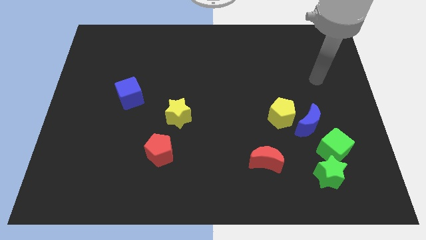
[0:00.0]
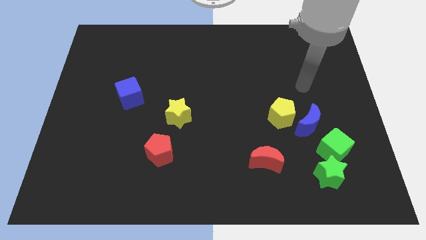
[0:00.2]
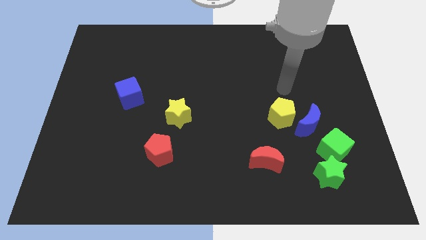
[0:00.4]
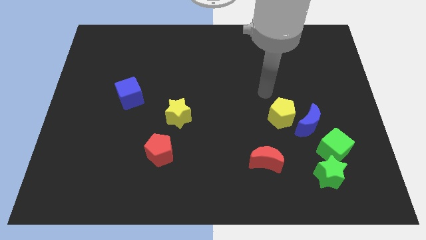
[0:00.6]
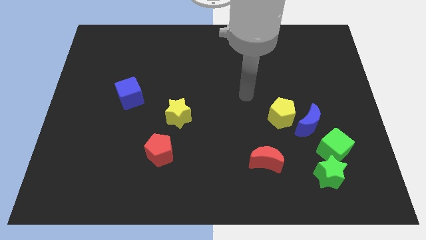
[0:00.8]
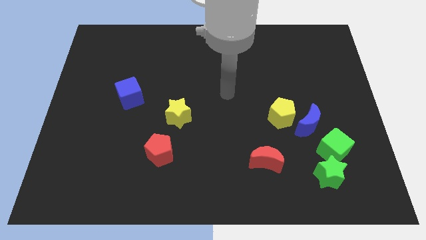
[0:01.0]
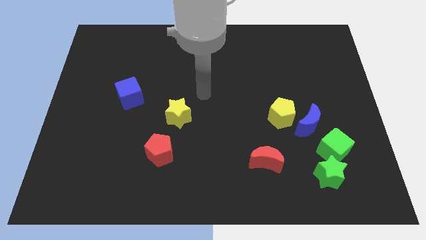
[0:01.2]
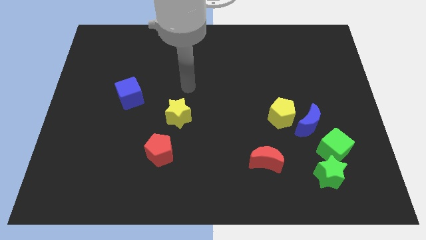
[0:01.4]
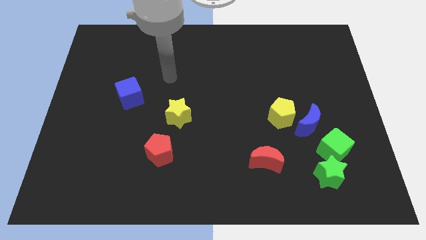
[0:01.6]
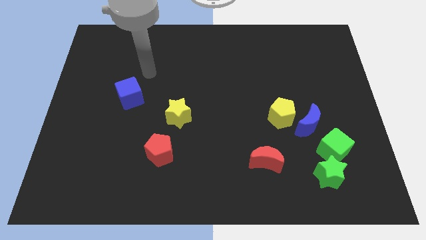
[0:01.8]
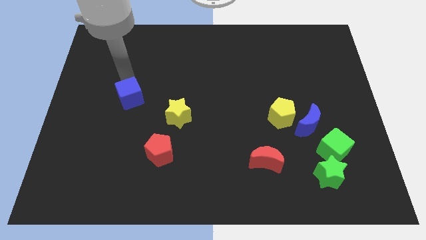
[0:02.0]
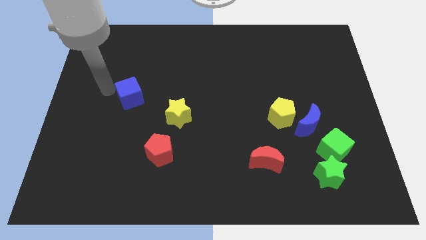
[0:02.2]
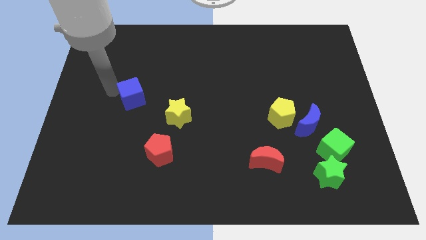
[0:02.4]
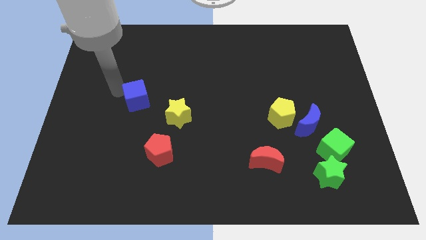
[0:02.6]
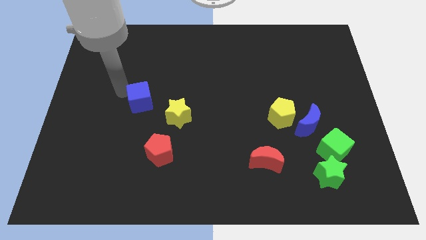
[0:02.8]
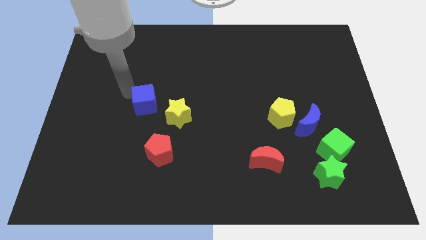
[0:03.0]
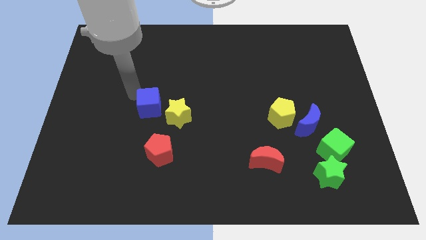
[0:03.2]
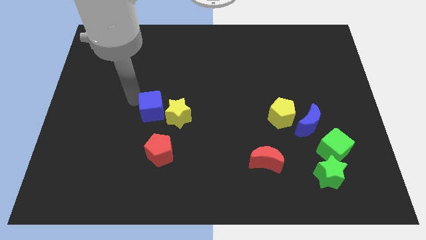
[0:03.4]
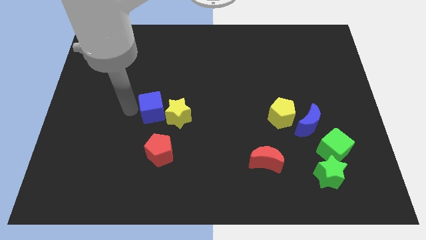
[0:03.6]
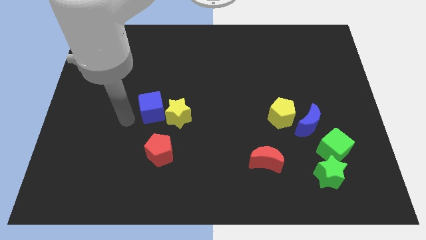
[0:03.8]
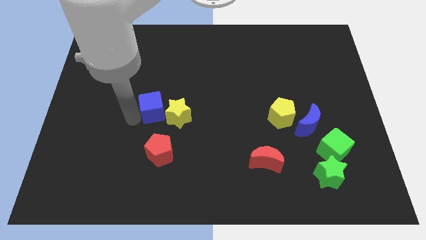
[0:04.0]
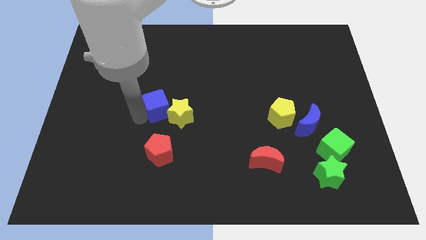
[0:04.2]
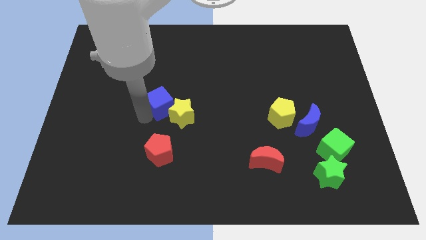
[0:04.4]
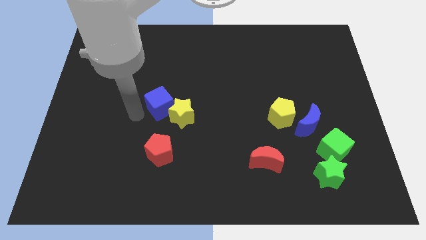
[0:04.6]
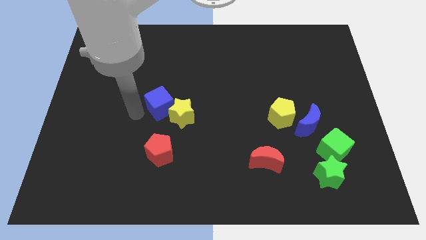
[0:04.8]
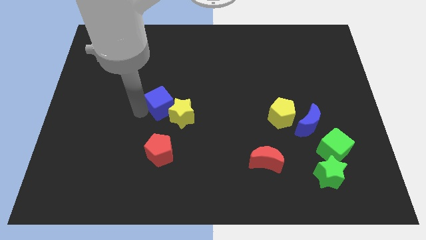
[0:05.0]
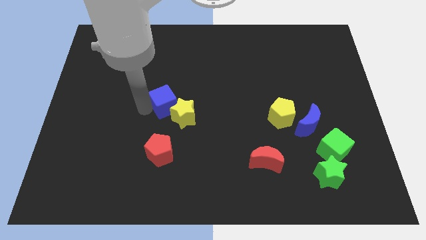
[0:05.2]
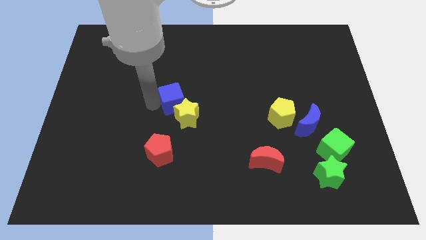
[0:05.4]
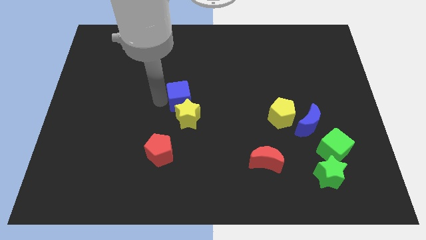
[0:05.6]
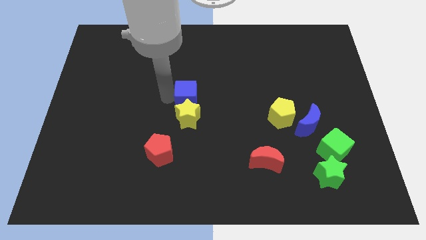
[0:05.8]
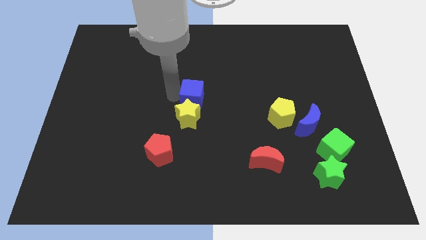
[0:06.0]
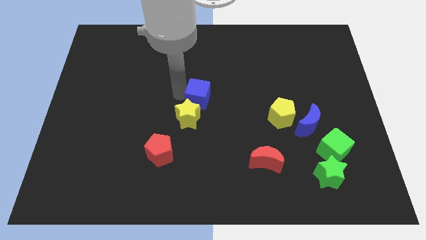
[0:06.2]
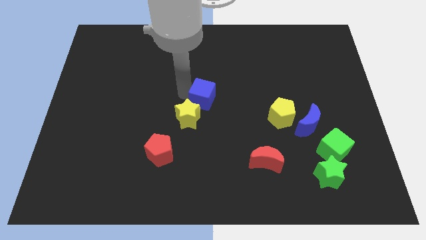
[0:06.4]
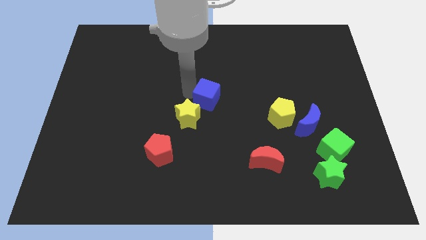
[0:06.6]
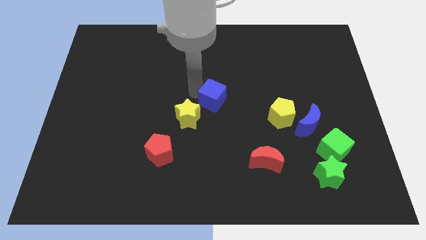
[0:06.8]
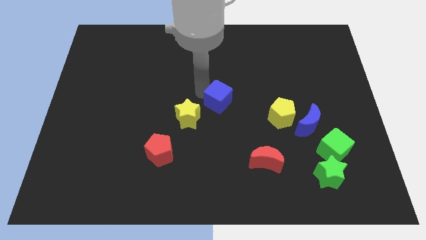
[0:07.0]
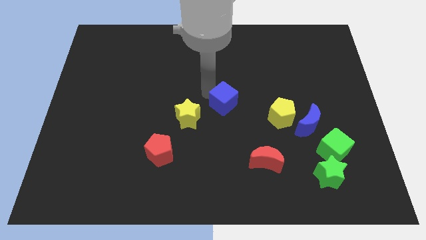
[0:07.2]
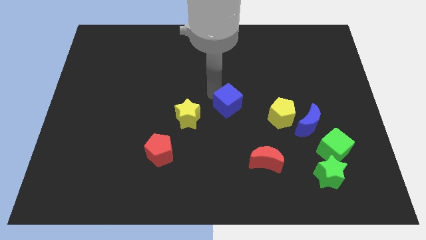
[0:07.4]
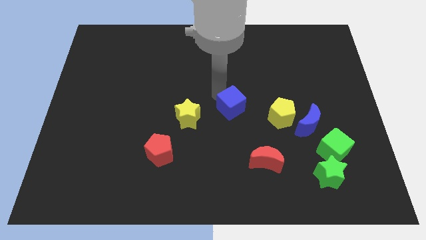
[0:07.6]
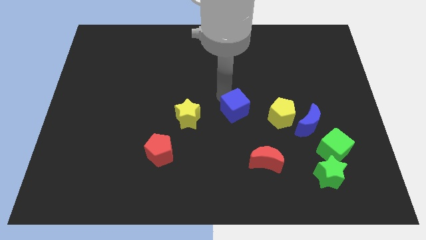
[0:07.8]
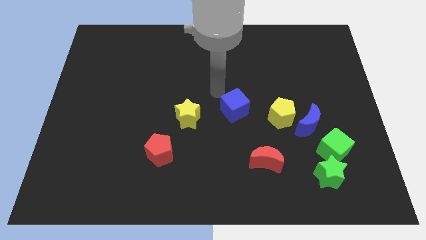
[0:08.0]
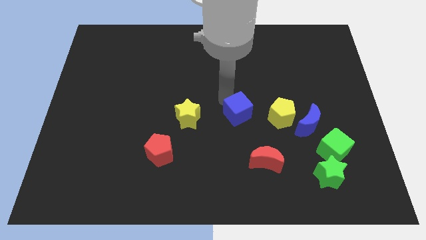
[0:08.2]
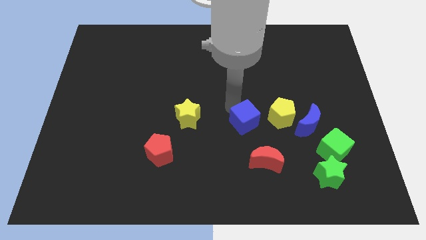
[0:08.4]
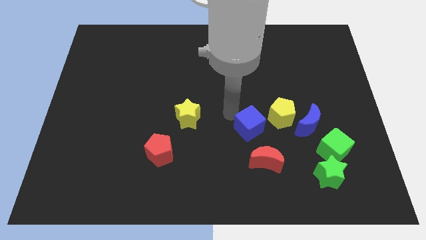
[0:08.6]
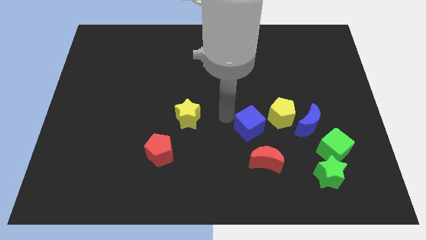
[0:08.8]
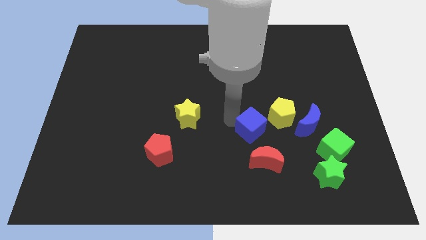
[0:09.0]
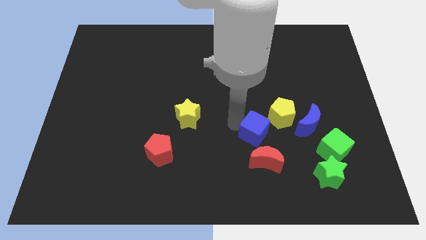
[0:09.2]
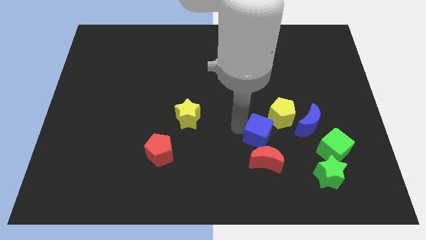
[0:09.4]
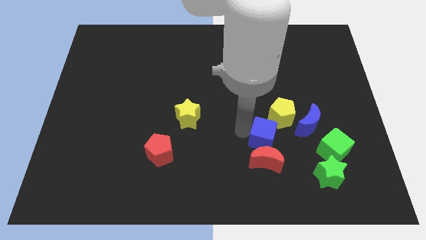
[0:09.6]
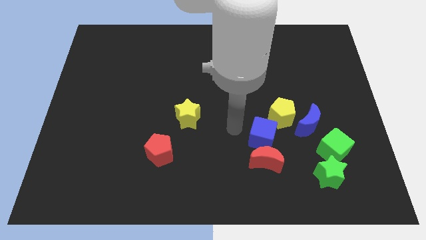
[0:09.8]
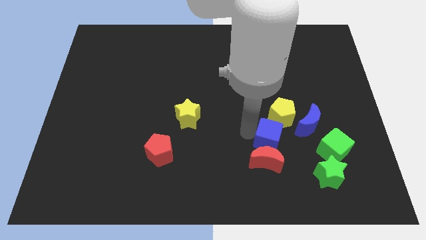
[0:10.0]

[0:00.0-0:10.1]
slide the blue cube to the bottom left side of the blue moon

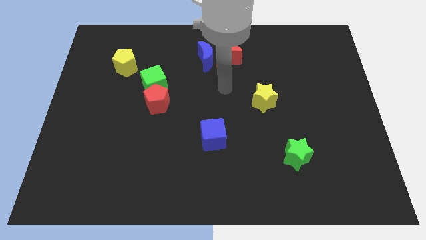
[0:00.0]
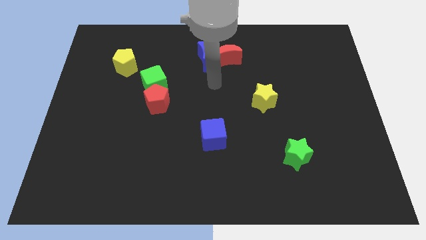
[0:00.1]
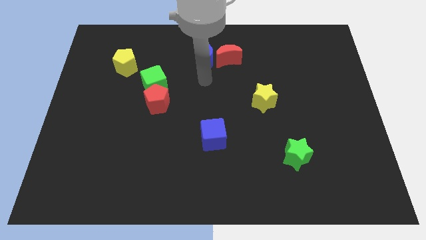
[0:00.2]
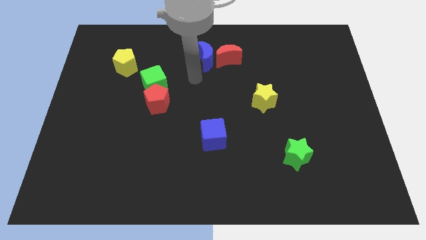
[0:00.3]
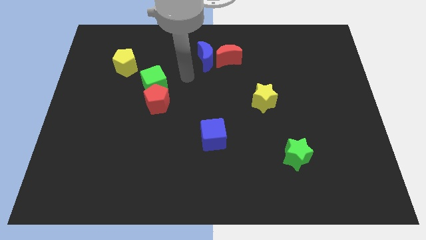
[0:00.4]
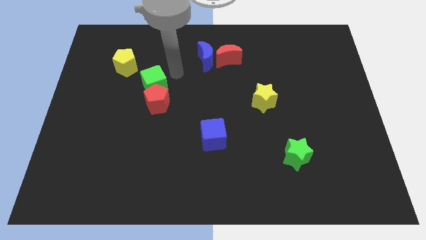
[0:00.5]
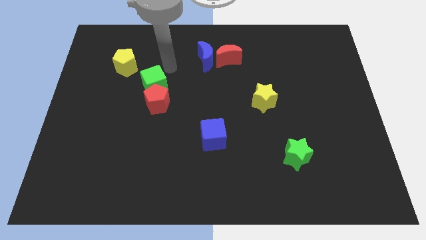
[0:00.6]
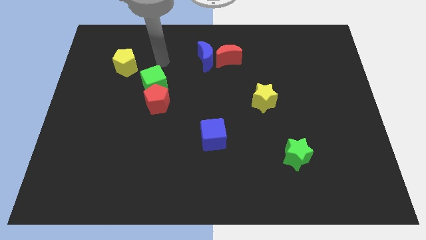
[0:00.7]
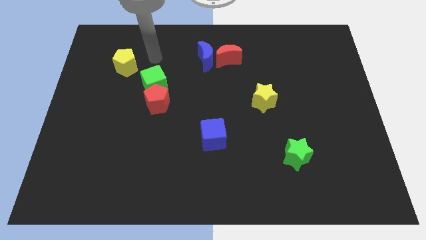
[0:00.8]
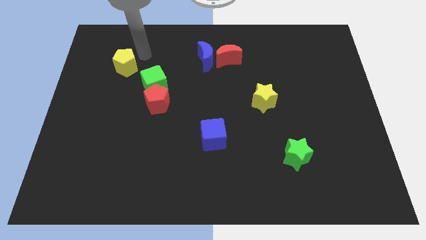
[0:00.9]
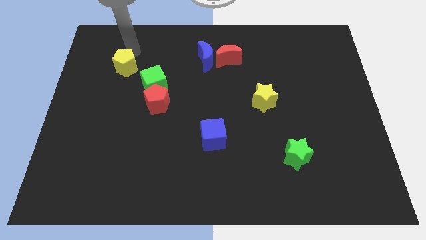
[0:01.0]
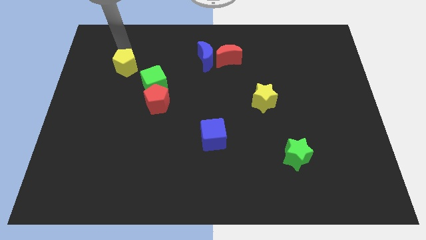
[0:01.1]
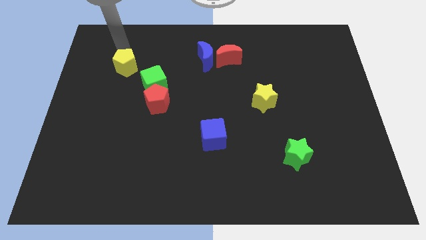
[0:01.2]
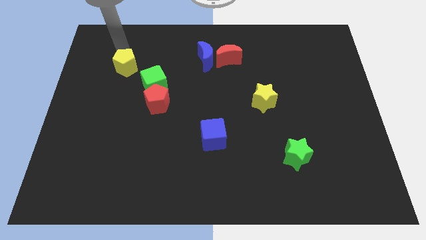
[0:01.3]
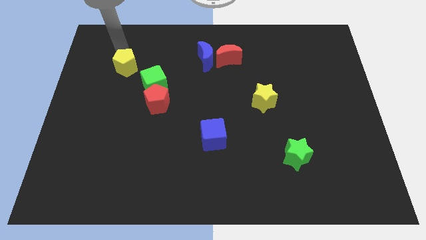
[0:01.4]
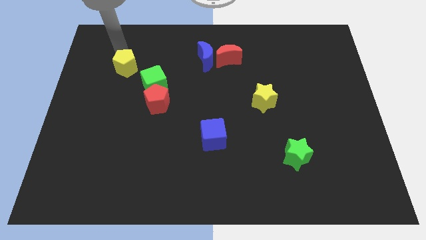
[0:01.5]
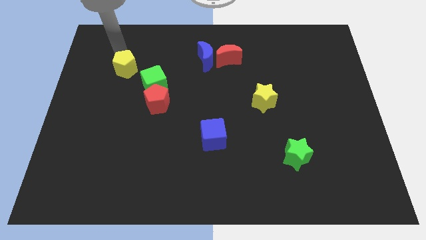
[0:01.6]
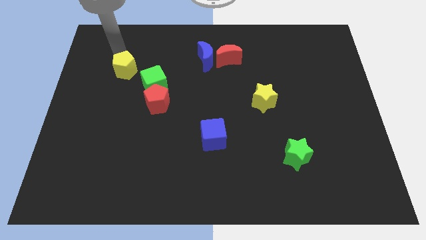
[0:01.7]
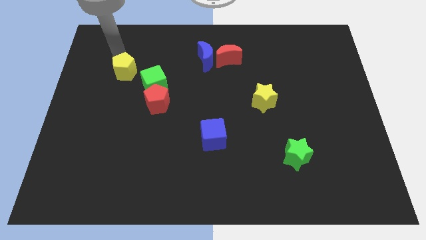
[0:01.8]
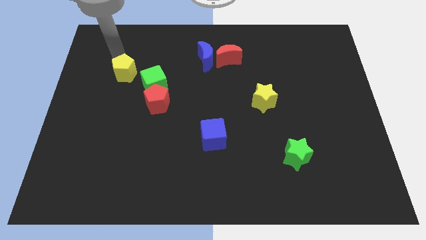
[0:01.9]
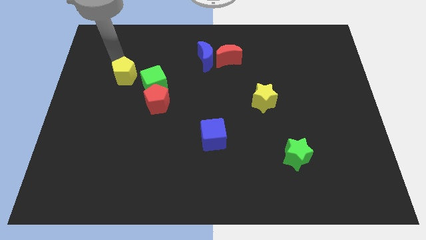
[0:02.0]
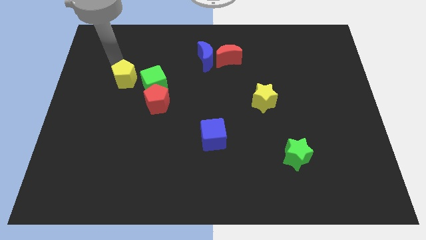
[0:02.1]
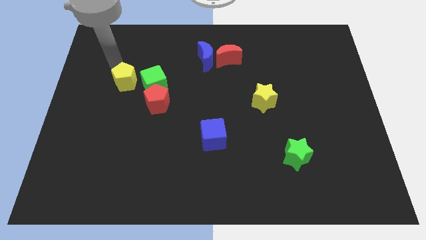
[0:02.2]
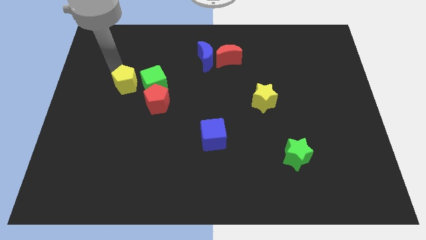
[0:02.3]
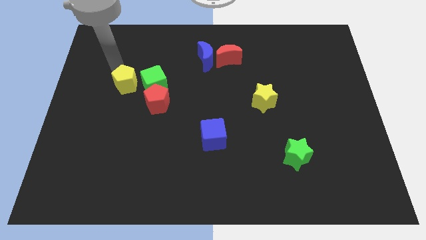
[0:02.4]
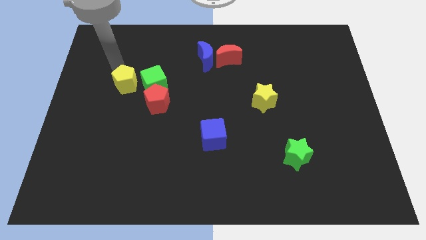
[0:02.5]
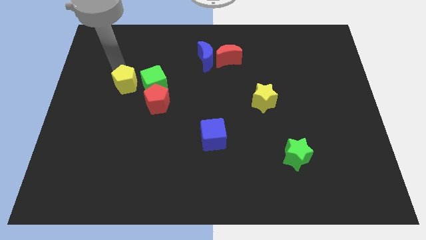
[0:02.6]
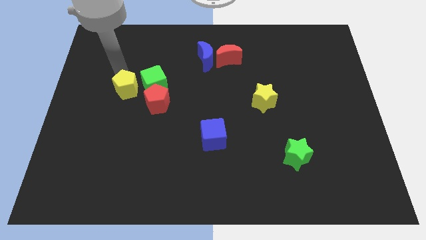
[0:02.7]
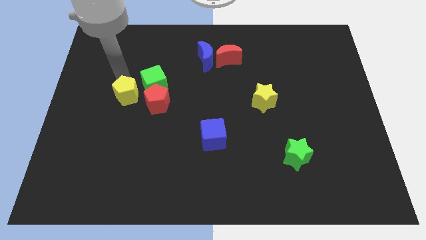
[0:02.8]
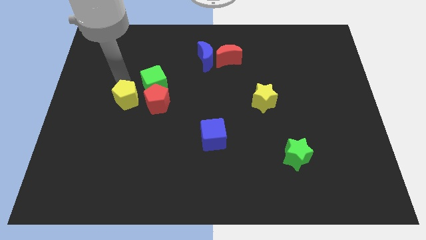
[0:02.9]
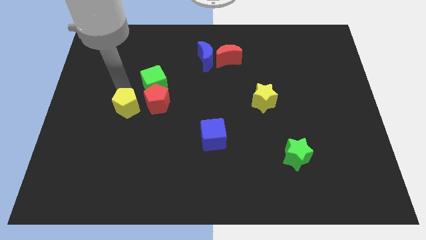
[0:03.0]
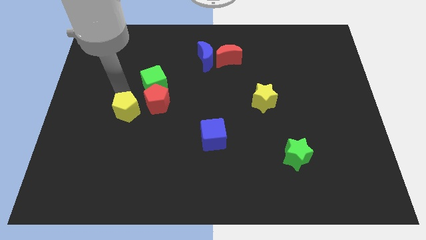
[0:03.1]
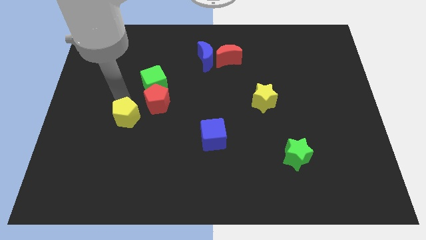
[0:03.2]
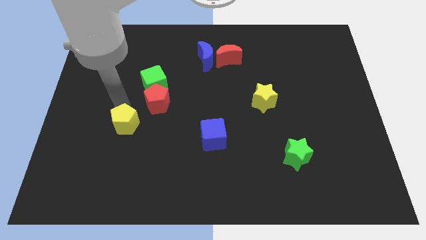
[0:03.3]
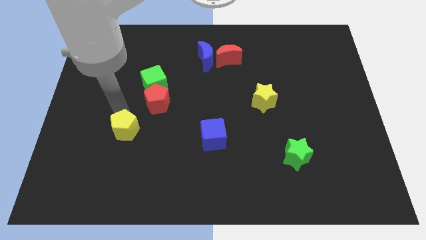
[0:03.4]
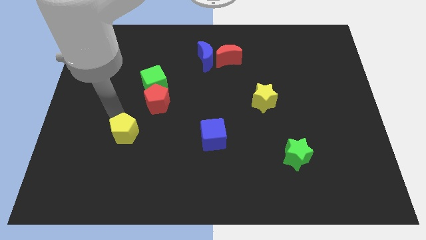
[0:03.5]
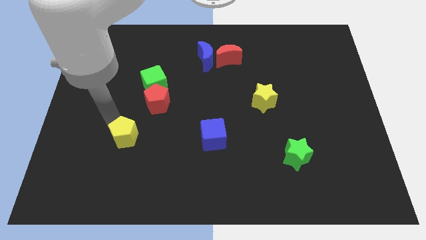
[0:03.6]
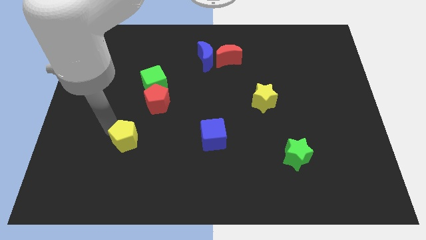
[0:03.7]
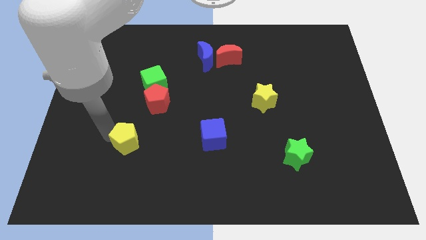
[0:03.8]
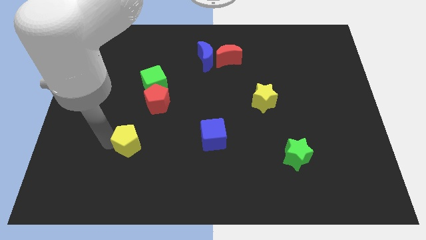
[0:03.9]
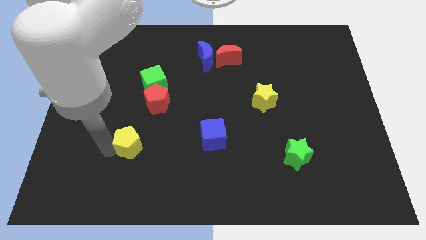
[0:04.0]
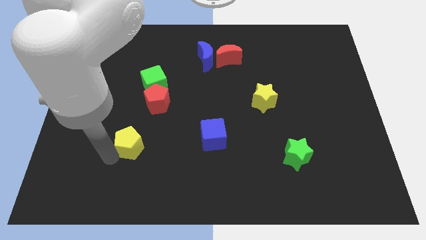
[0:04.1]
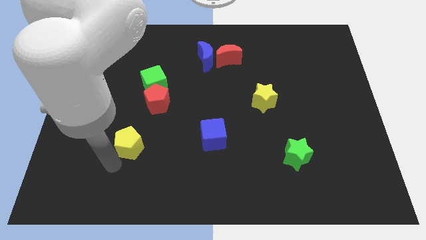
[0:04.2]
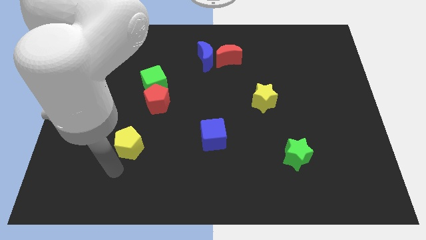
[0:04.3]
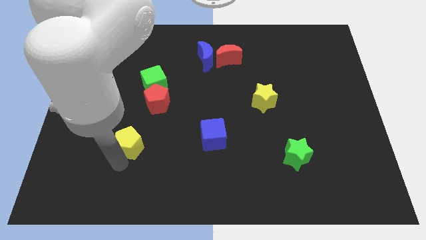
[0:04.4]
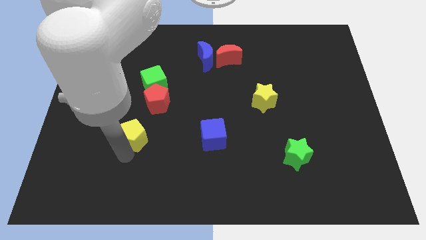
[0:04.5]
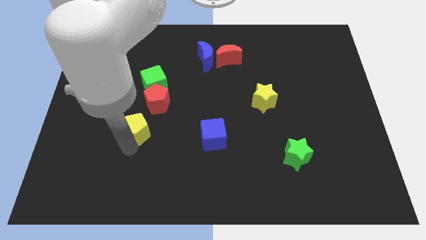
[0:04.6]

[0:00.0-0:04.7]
move the yellow pentagon to the bottom side of the green cube
